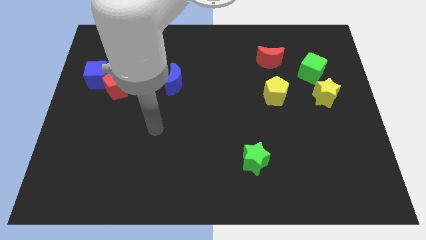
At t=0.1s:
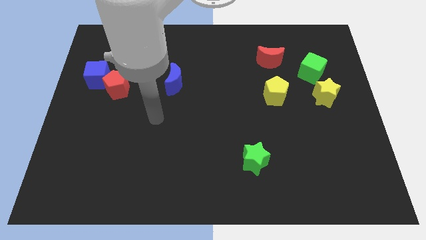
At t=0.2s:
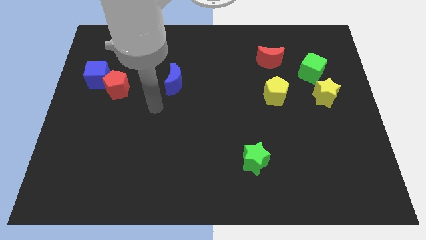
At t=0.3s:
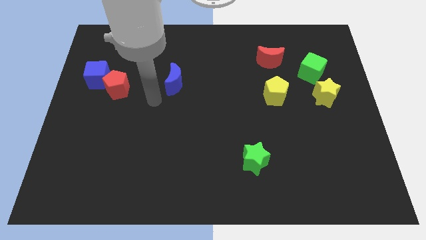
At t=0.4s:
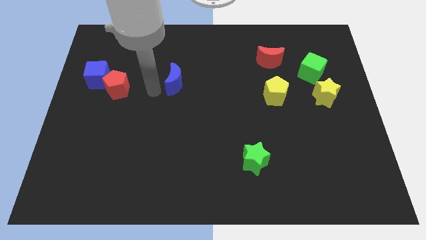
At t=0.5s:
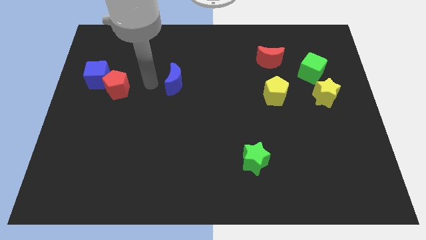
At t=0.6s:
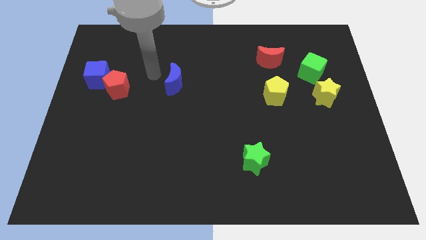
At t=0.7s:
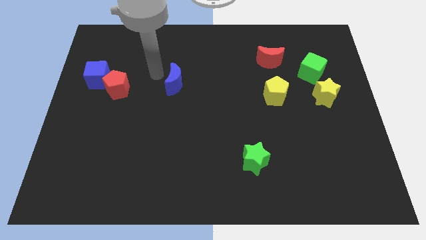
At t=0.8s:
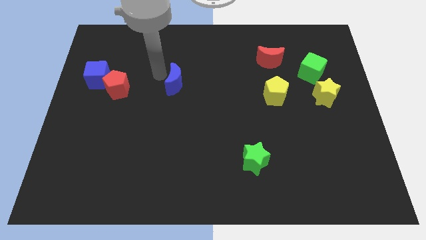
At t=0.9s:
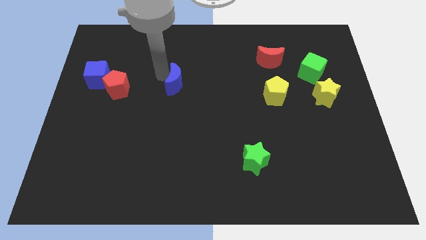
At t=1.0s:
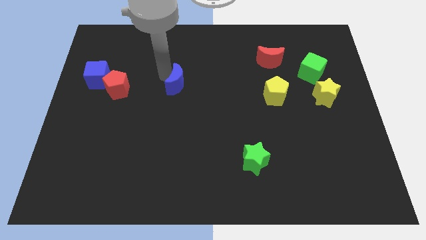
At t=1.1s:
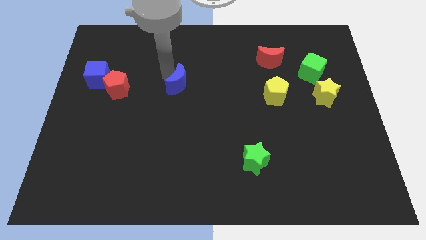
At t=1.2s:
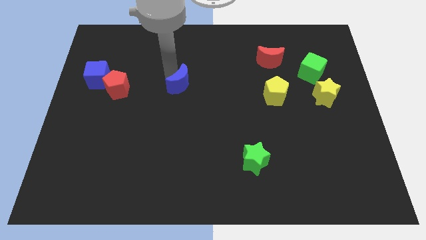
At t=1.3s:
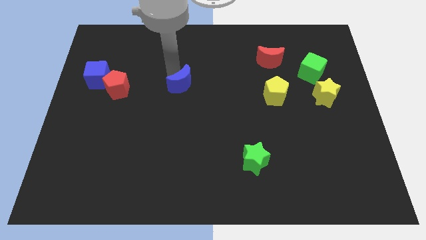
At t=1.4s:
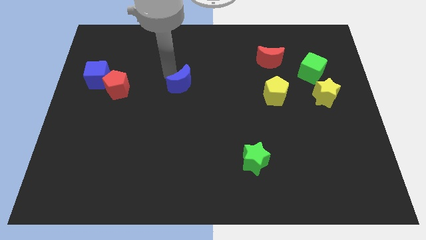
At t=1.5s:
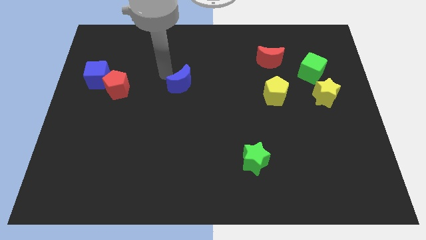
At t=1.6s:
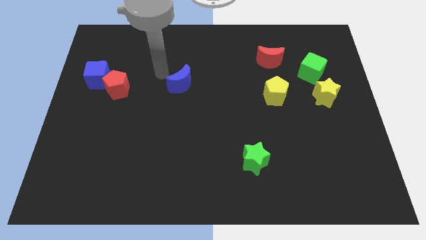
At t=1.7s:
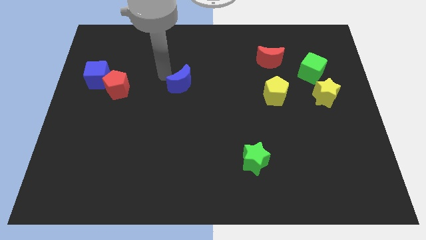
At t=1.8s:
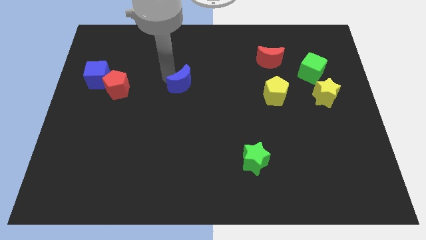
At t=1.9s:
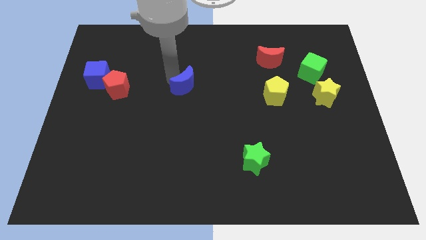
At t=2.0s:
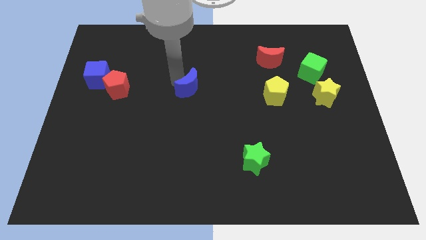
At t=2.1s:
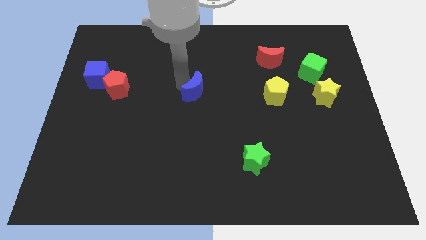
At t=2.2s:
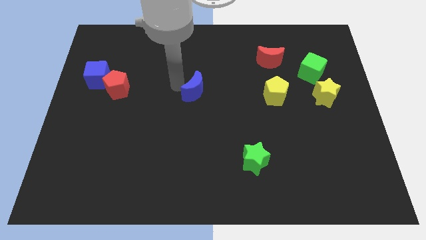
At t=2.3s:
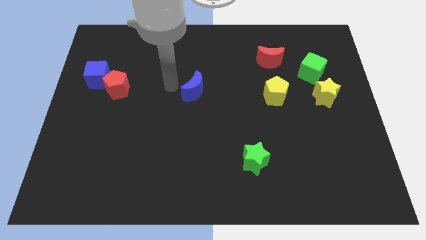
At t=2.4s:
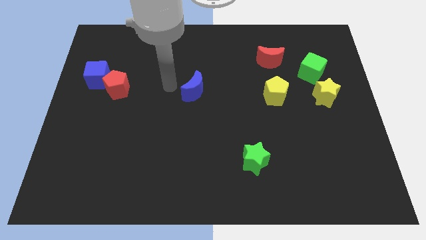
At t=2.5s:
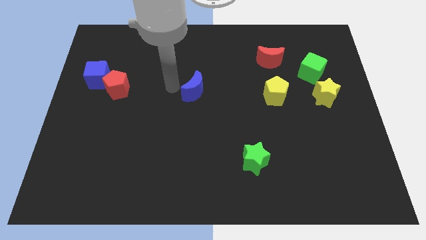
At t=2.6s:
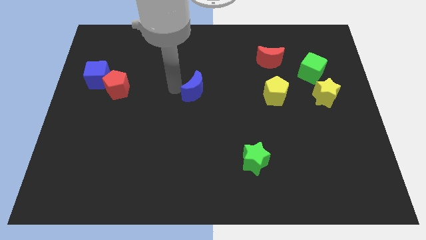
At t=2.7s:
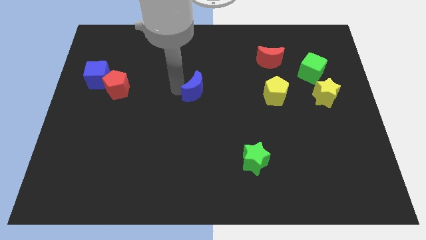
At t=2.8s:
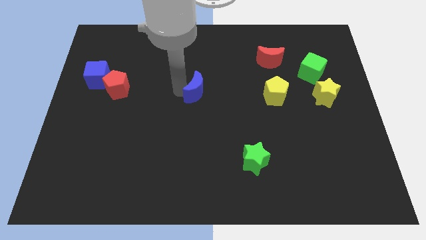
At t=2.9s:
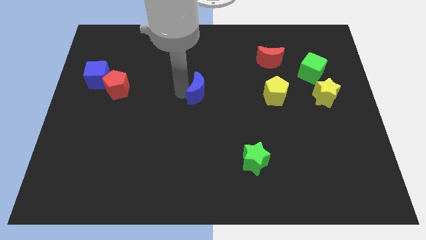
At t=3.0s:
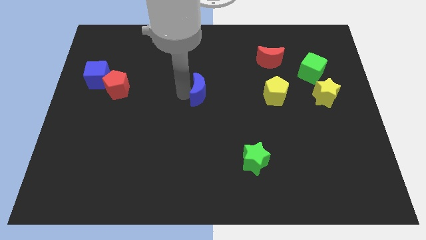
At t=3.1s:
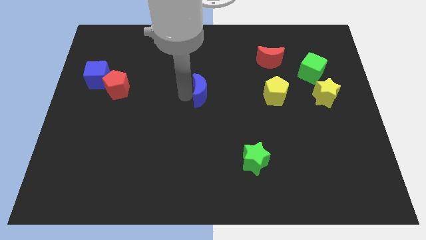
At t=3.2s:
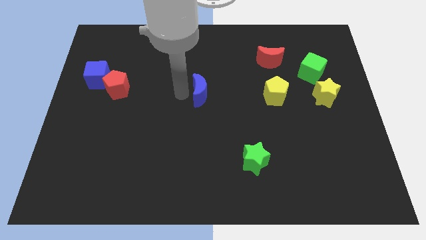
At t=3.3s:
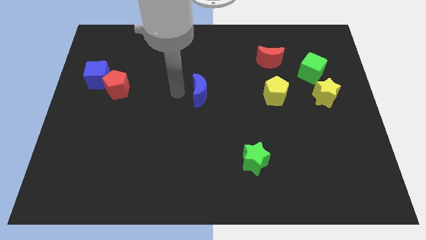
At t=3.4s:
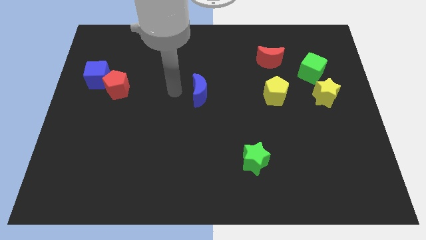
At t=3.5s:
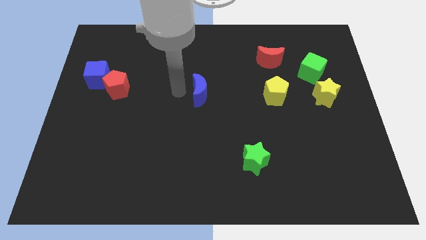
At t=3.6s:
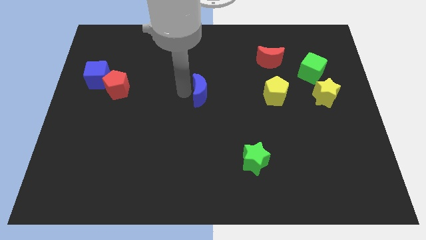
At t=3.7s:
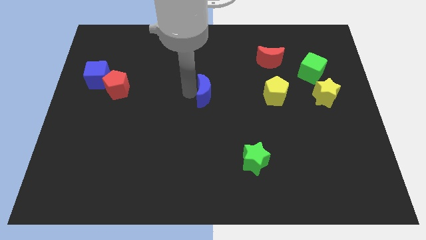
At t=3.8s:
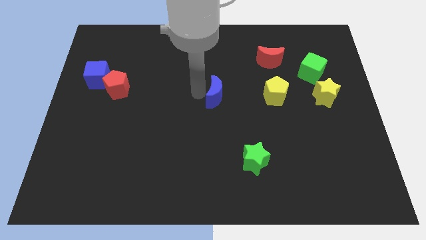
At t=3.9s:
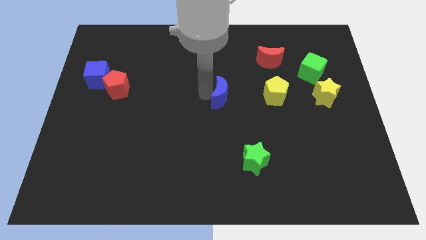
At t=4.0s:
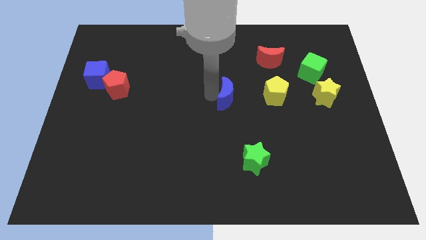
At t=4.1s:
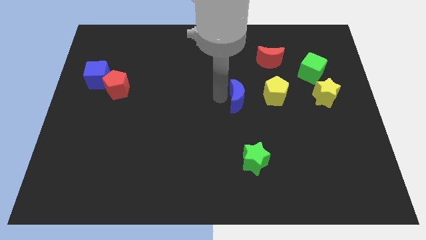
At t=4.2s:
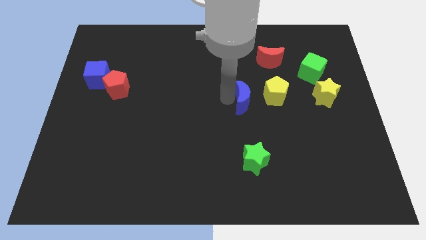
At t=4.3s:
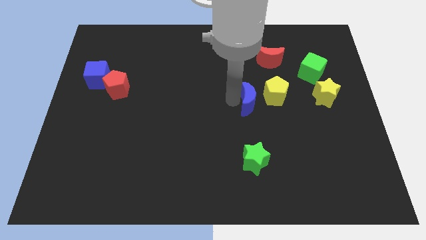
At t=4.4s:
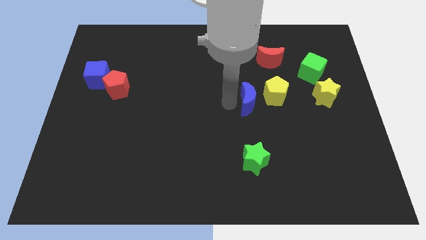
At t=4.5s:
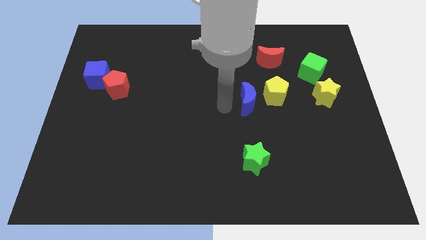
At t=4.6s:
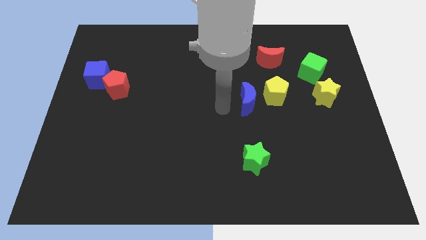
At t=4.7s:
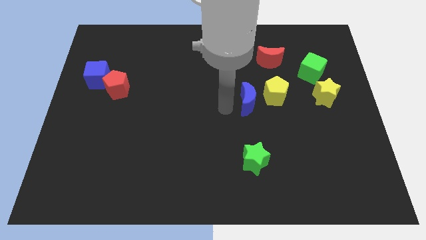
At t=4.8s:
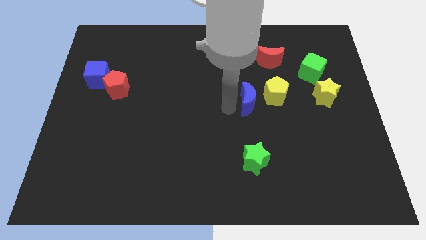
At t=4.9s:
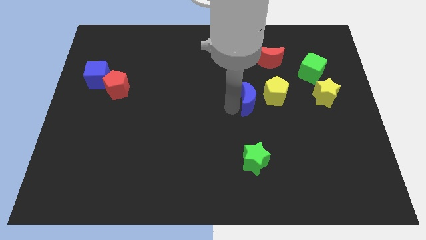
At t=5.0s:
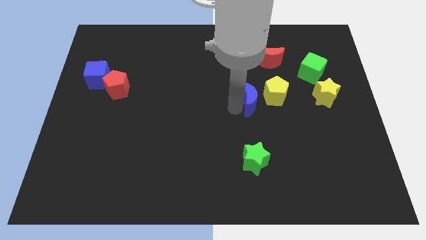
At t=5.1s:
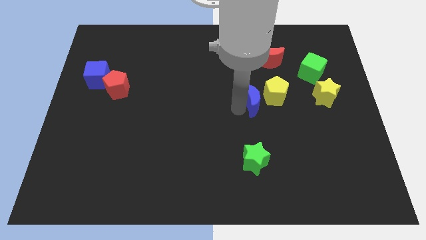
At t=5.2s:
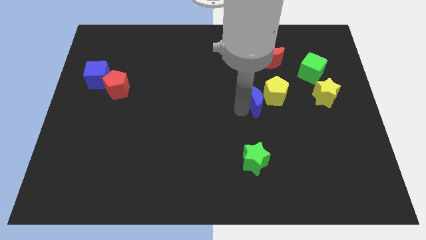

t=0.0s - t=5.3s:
move the blue moon next to the yellow pentagon

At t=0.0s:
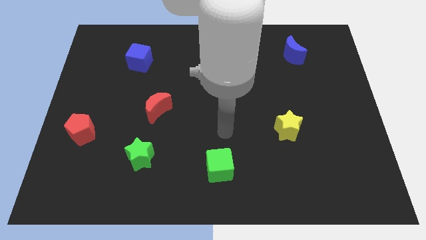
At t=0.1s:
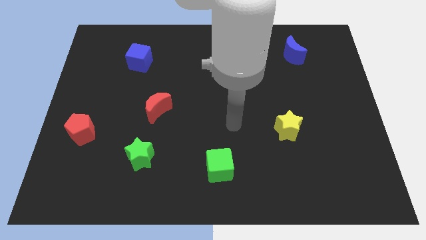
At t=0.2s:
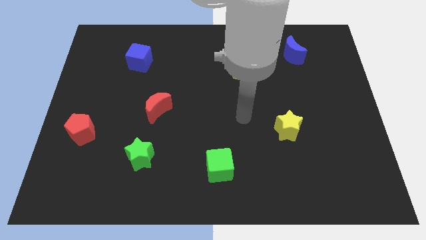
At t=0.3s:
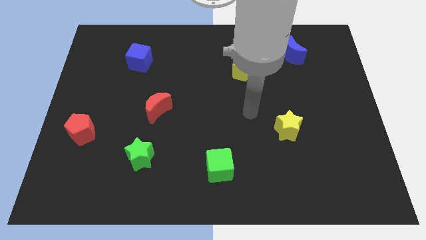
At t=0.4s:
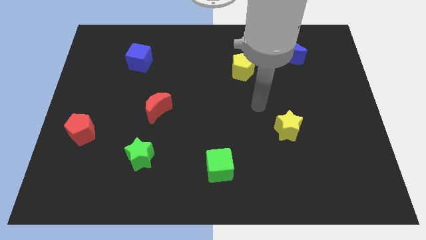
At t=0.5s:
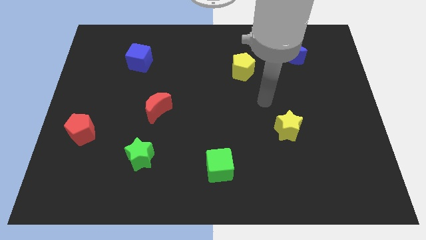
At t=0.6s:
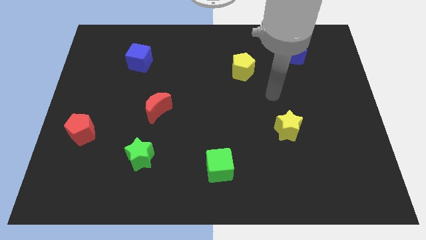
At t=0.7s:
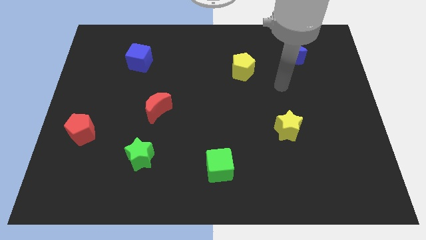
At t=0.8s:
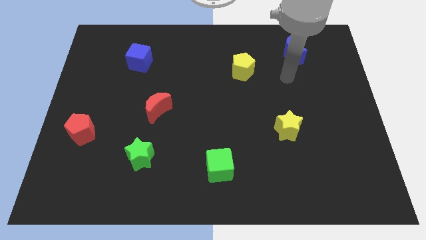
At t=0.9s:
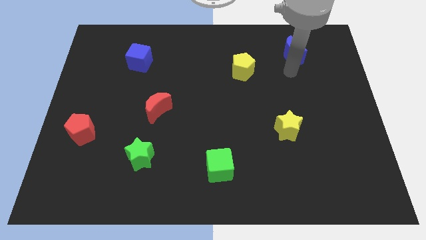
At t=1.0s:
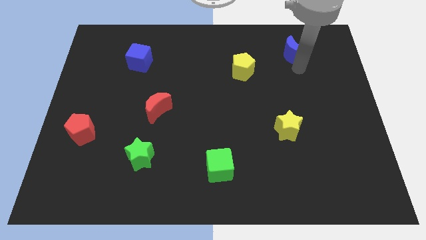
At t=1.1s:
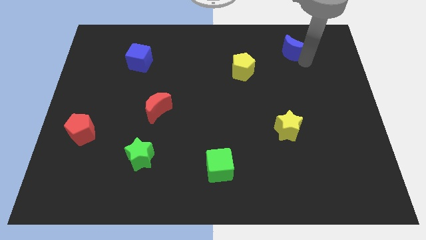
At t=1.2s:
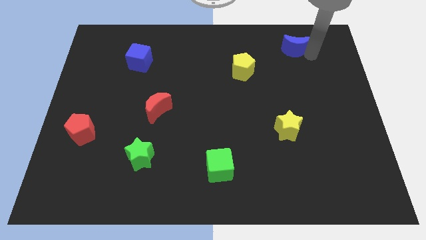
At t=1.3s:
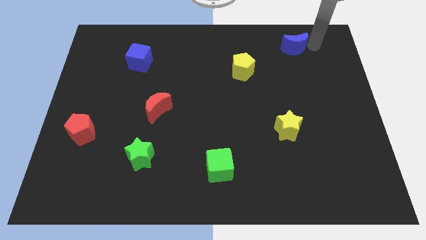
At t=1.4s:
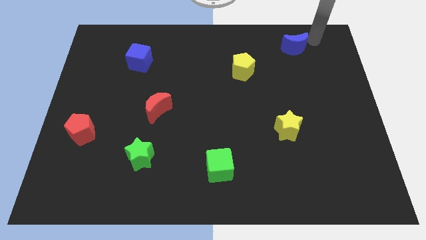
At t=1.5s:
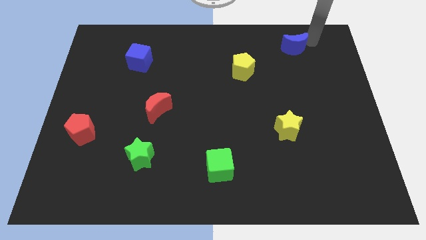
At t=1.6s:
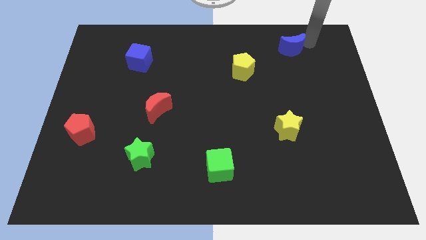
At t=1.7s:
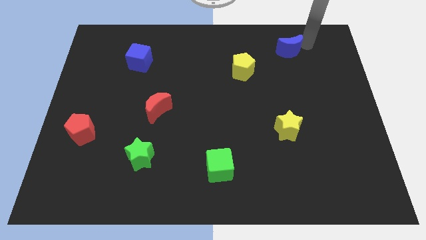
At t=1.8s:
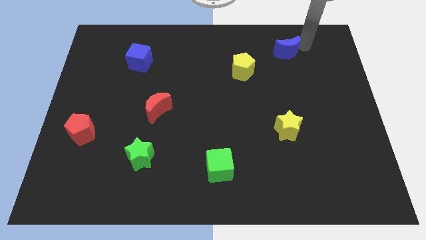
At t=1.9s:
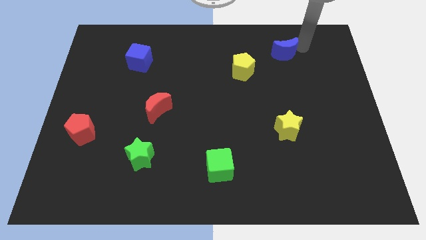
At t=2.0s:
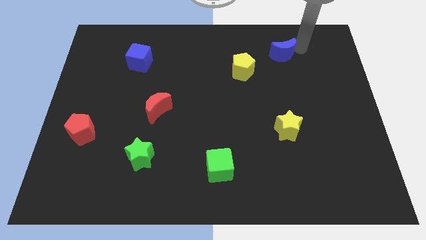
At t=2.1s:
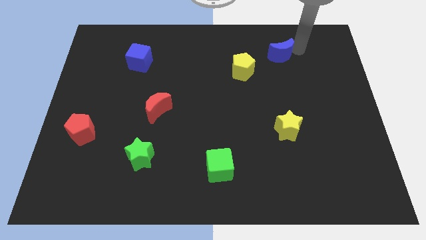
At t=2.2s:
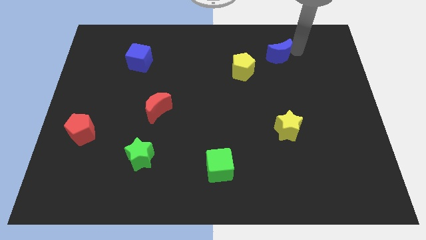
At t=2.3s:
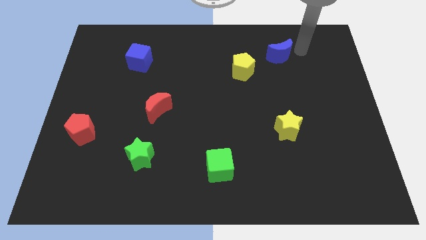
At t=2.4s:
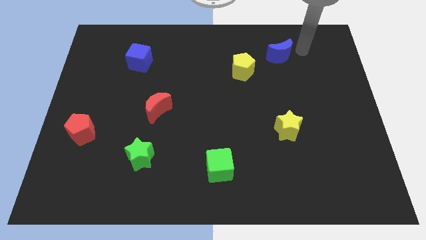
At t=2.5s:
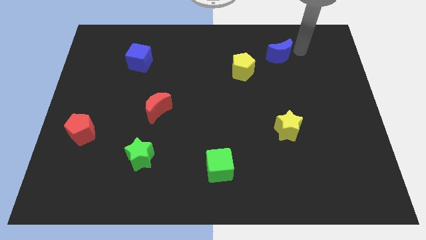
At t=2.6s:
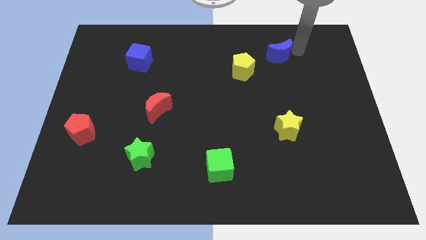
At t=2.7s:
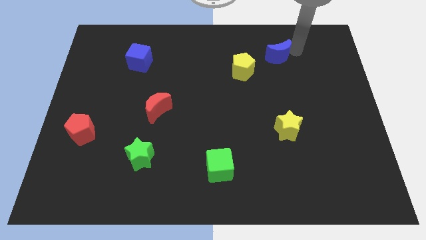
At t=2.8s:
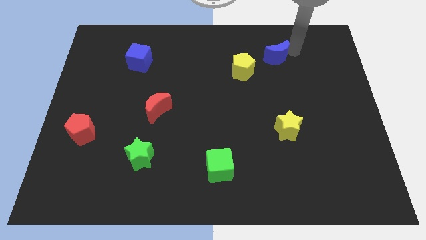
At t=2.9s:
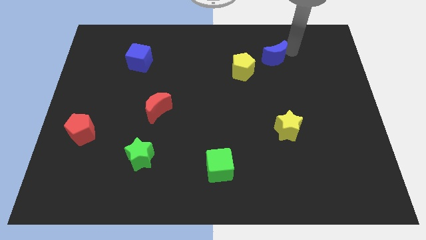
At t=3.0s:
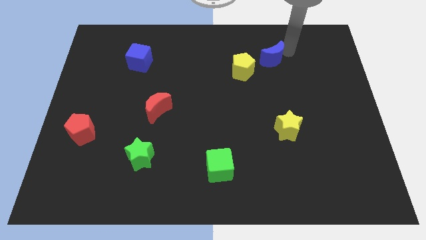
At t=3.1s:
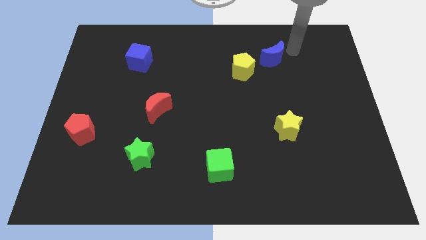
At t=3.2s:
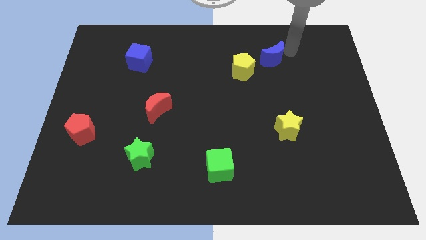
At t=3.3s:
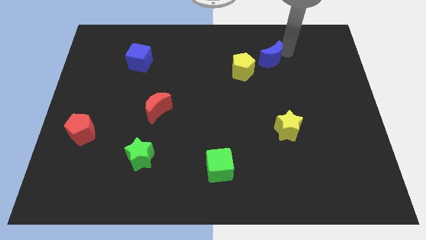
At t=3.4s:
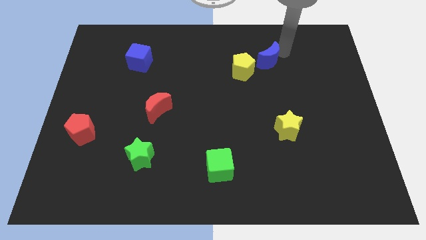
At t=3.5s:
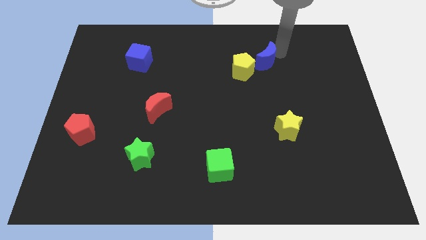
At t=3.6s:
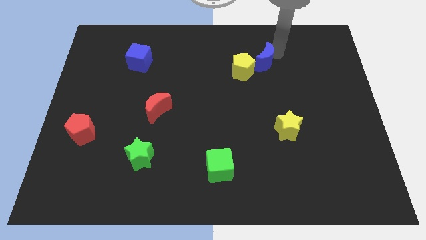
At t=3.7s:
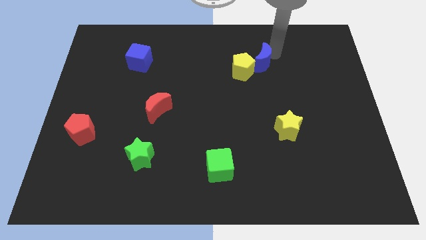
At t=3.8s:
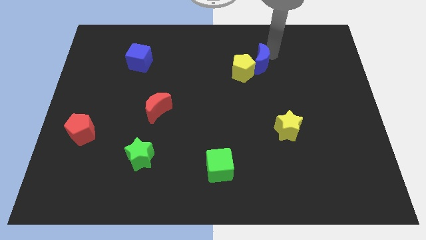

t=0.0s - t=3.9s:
push the blue moon close to the yellow pentagon
